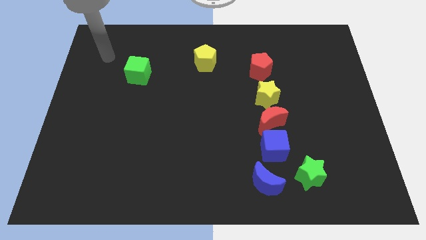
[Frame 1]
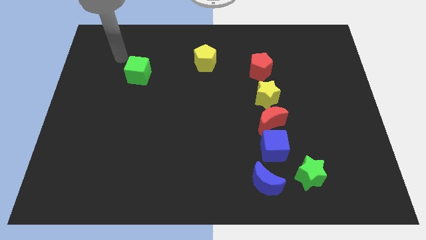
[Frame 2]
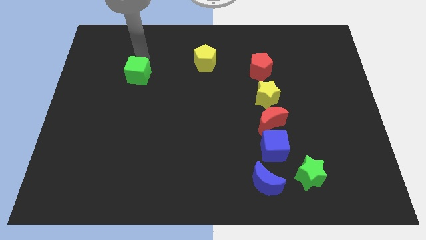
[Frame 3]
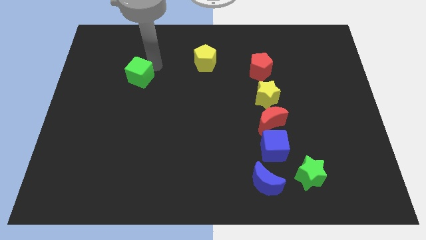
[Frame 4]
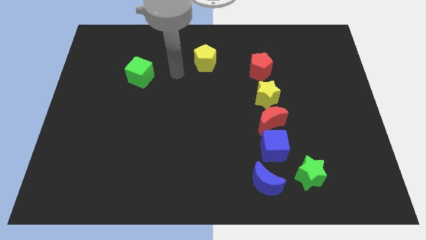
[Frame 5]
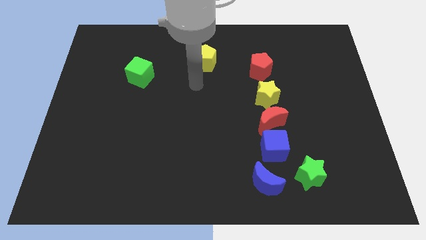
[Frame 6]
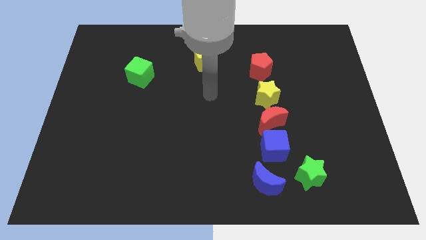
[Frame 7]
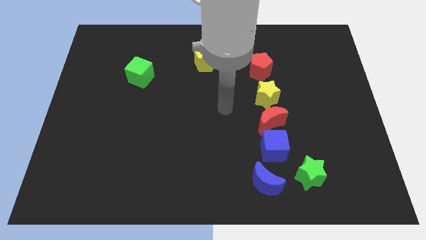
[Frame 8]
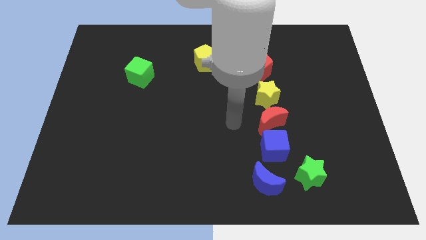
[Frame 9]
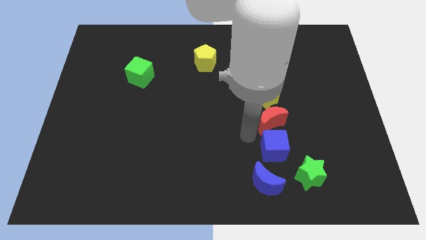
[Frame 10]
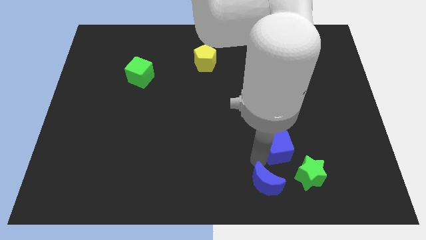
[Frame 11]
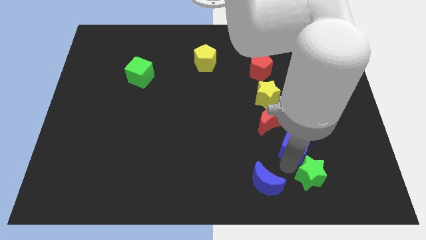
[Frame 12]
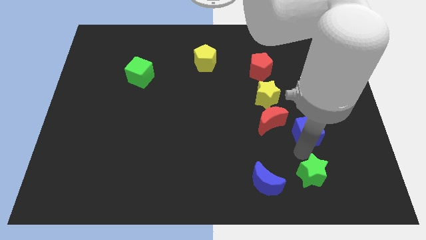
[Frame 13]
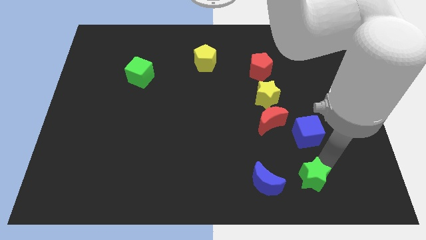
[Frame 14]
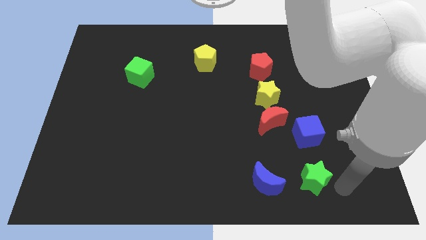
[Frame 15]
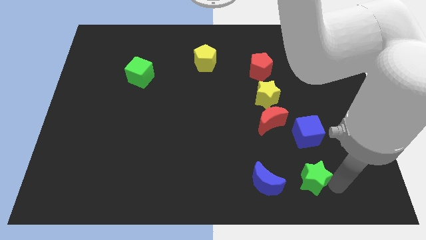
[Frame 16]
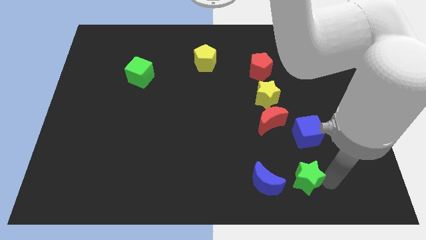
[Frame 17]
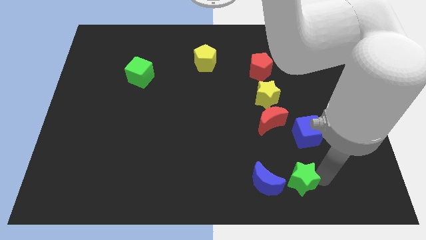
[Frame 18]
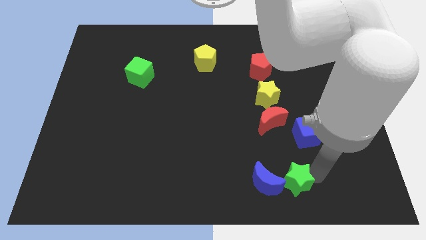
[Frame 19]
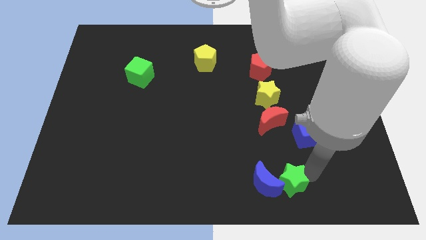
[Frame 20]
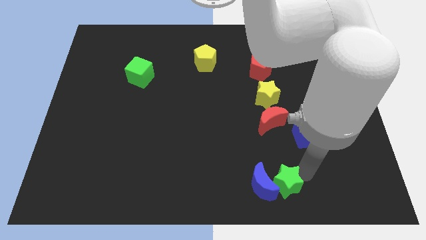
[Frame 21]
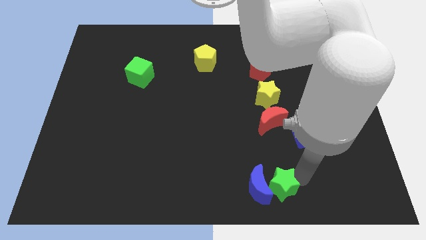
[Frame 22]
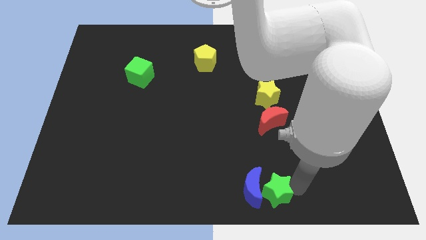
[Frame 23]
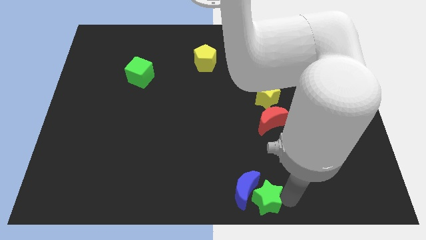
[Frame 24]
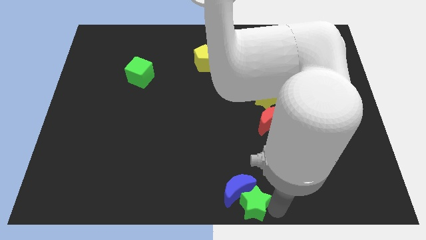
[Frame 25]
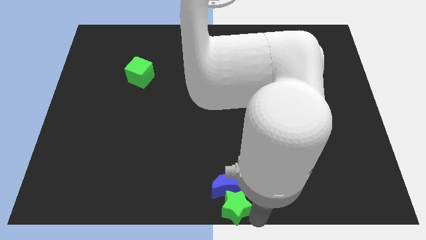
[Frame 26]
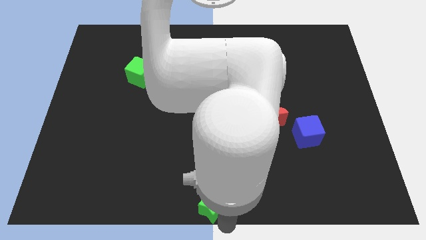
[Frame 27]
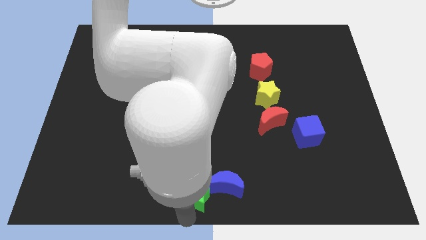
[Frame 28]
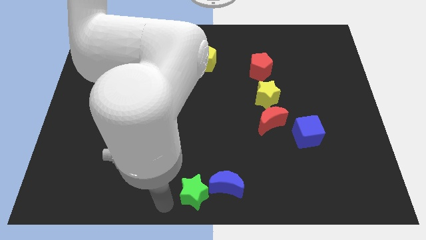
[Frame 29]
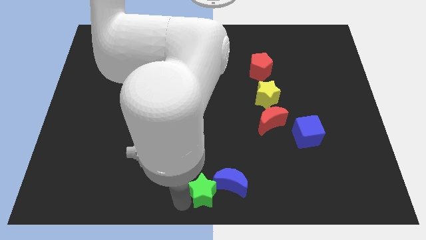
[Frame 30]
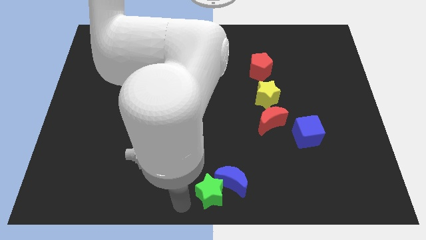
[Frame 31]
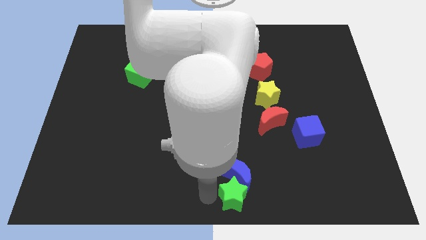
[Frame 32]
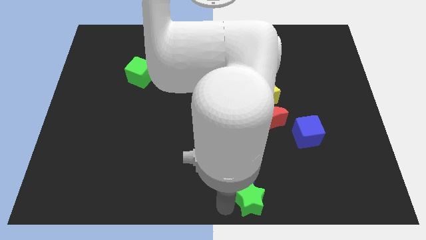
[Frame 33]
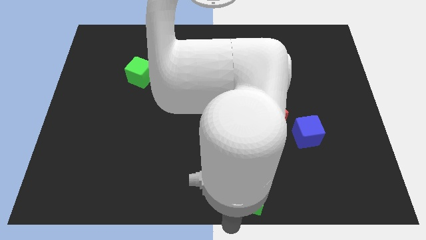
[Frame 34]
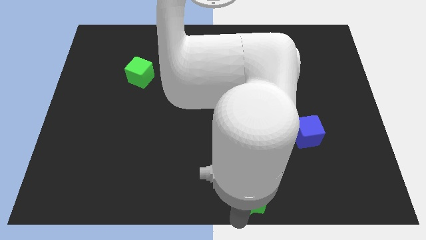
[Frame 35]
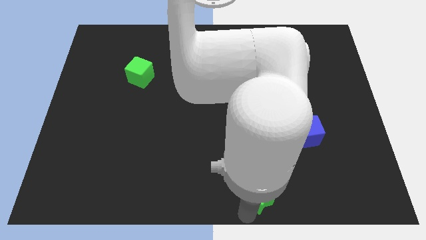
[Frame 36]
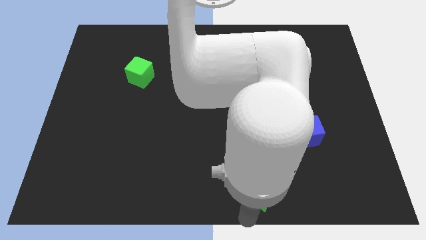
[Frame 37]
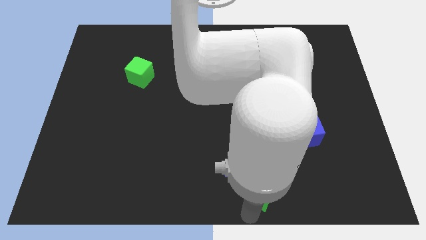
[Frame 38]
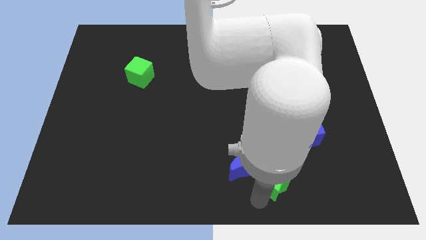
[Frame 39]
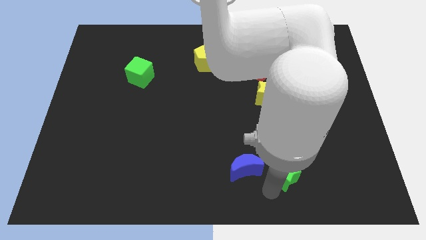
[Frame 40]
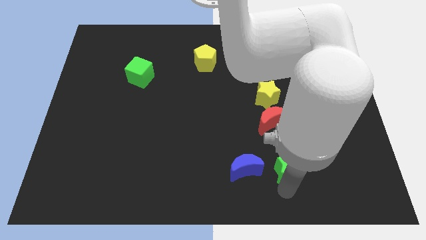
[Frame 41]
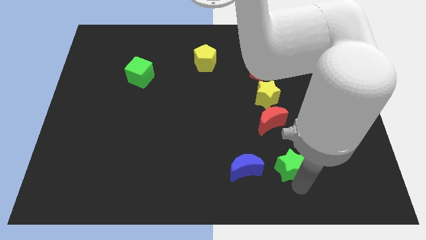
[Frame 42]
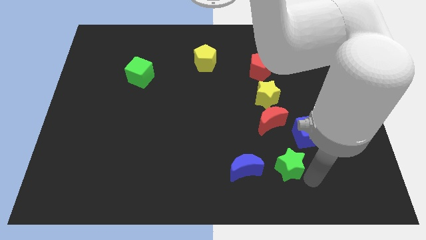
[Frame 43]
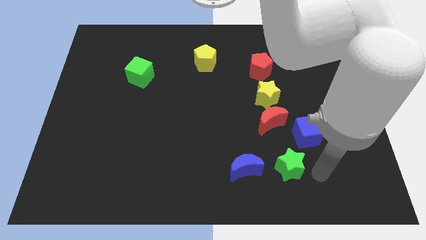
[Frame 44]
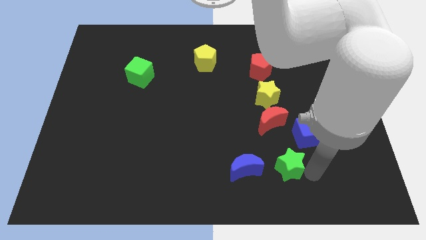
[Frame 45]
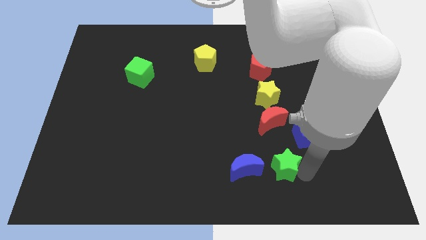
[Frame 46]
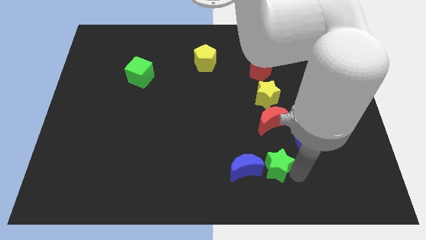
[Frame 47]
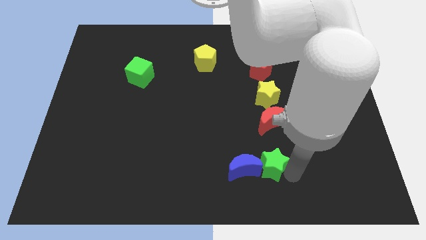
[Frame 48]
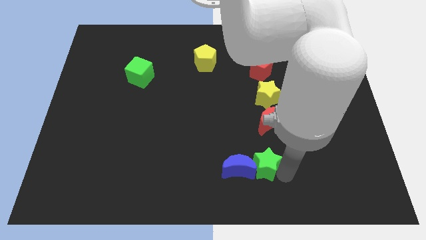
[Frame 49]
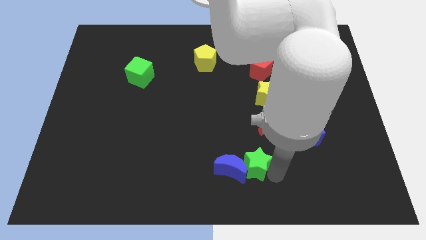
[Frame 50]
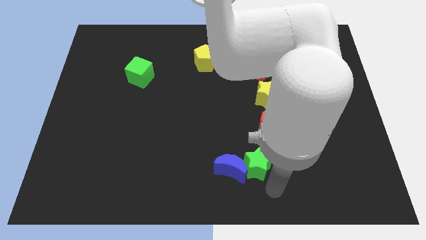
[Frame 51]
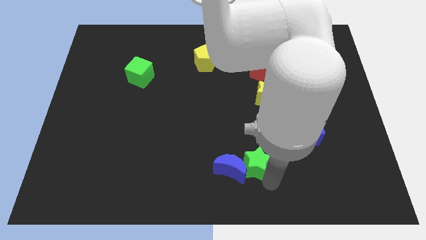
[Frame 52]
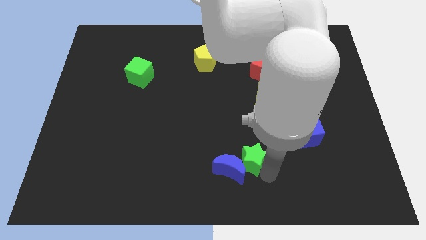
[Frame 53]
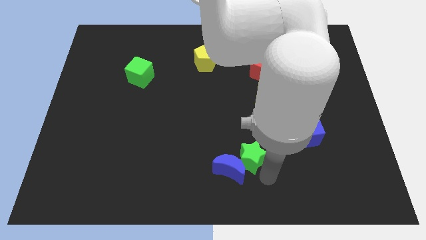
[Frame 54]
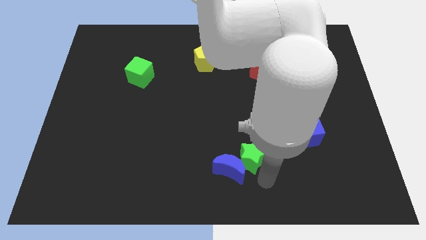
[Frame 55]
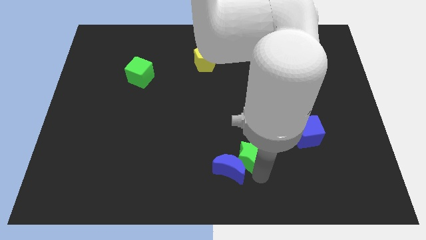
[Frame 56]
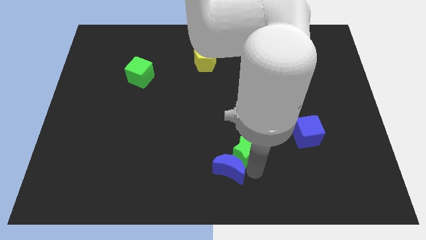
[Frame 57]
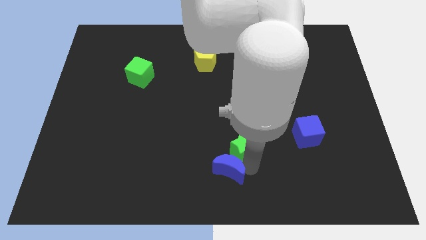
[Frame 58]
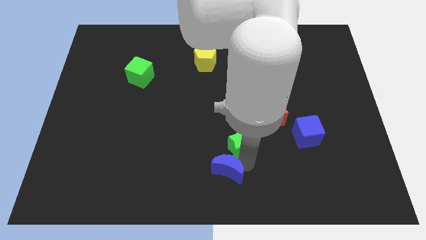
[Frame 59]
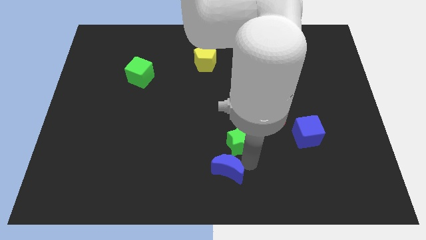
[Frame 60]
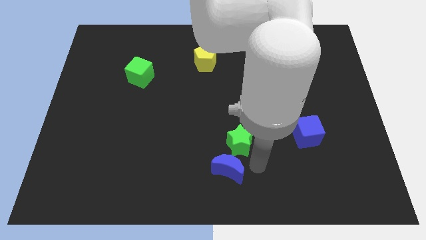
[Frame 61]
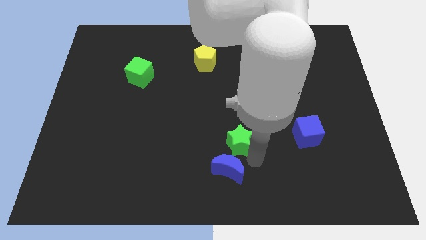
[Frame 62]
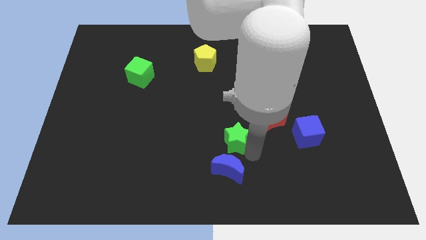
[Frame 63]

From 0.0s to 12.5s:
push the green star to the middle

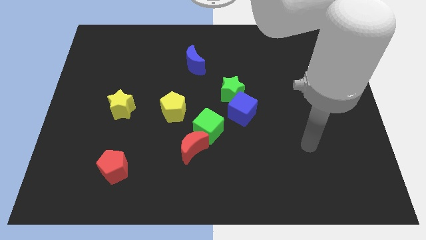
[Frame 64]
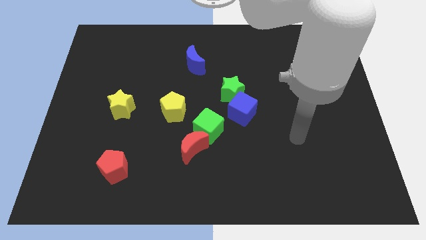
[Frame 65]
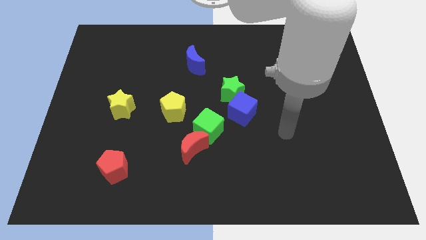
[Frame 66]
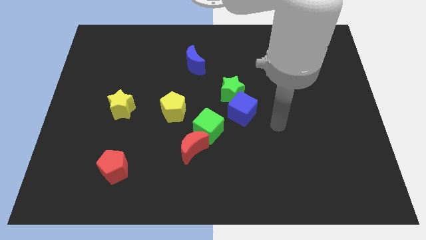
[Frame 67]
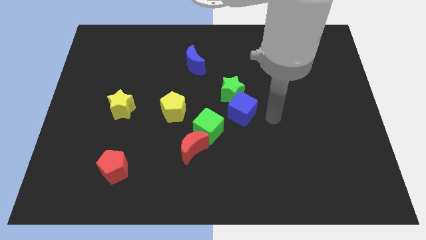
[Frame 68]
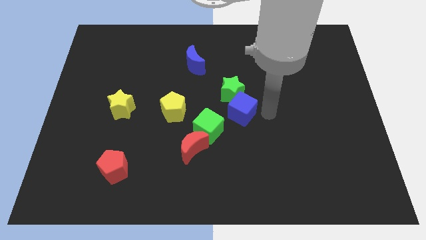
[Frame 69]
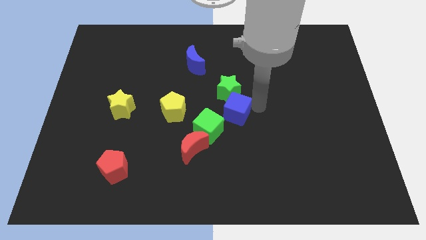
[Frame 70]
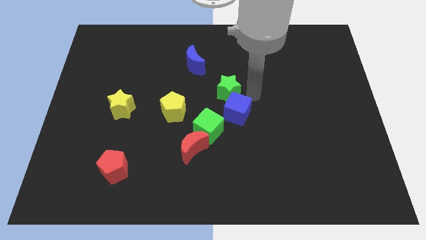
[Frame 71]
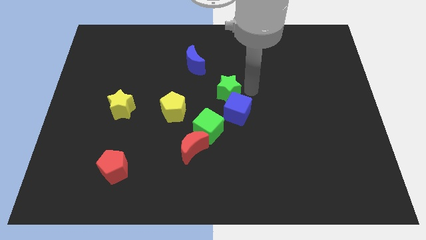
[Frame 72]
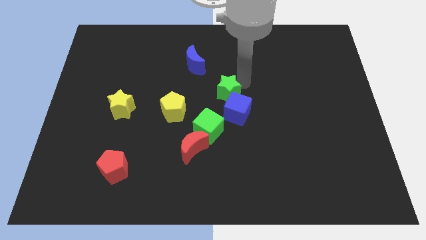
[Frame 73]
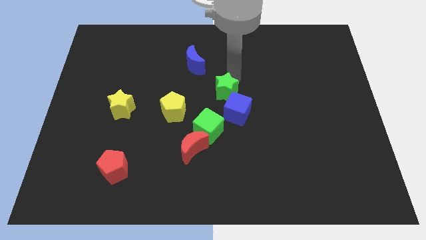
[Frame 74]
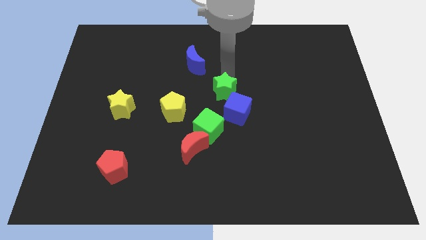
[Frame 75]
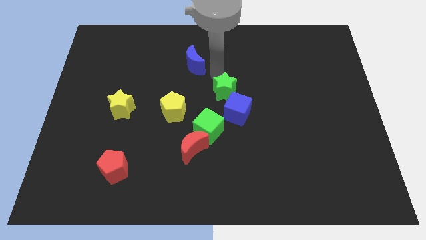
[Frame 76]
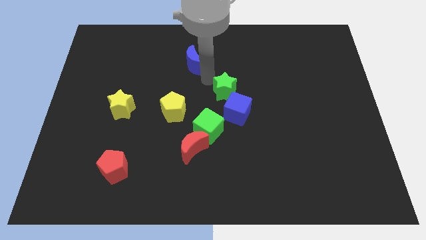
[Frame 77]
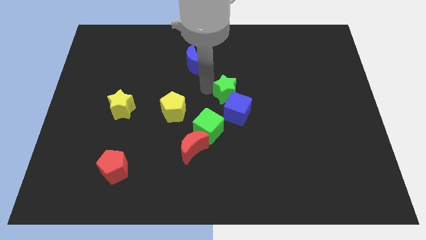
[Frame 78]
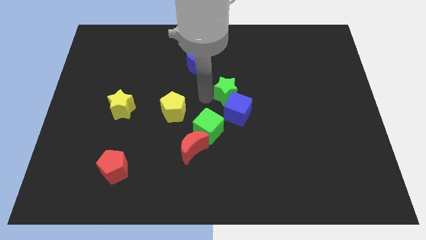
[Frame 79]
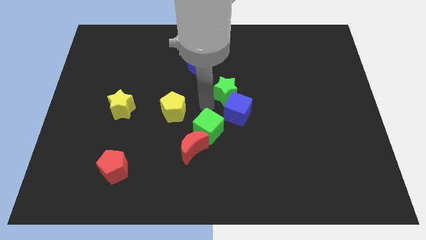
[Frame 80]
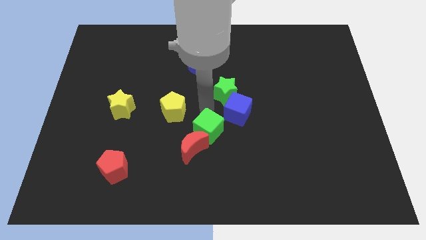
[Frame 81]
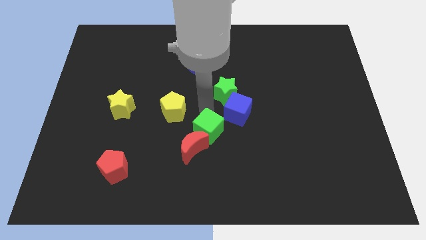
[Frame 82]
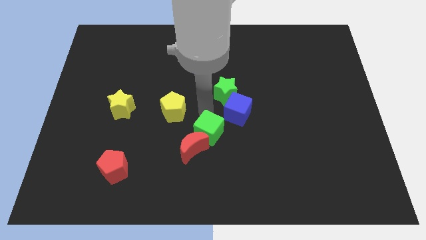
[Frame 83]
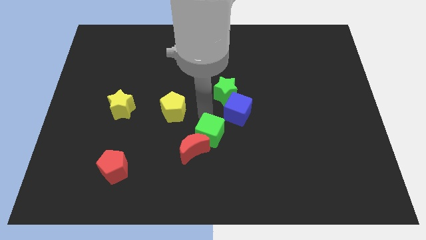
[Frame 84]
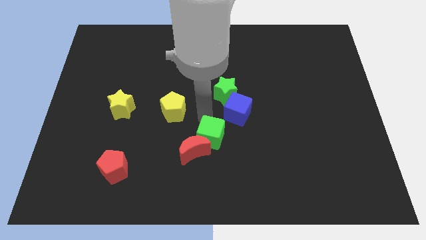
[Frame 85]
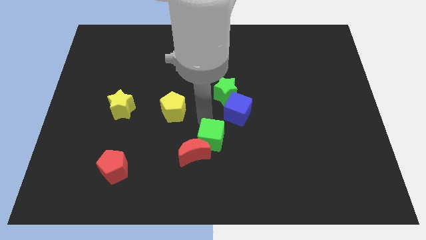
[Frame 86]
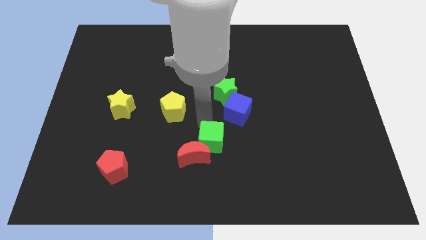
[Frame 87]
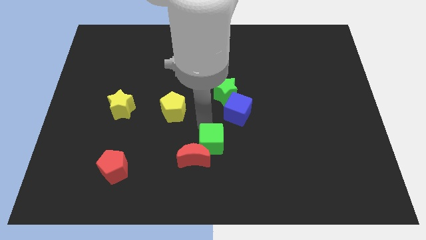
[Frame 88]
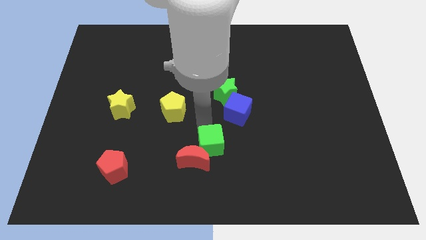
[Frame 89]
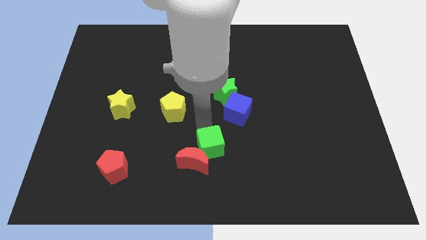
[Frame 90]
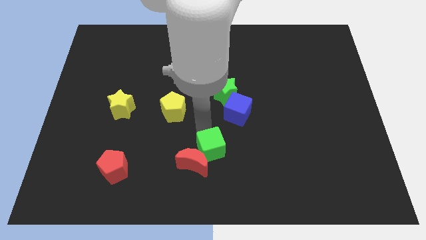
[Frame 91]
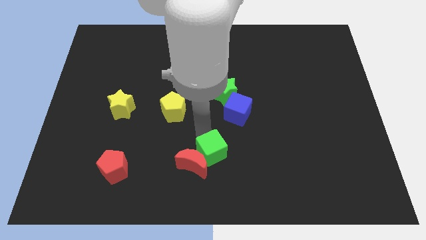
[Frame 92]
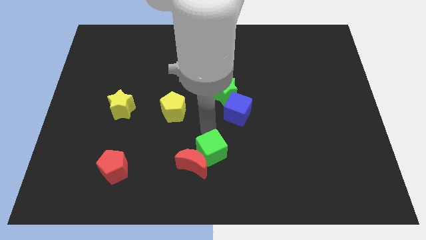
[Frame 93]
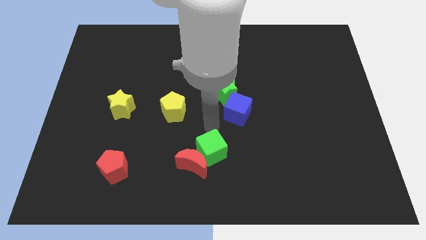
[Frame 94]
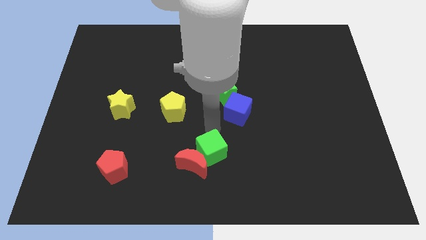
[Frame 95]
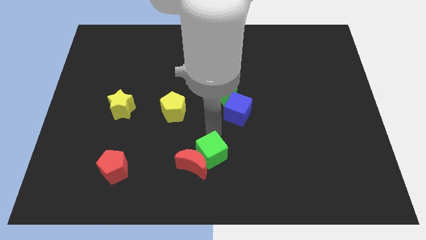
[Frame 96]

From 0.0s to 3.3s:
move the green cube to the bottom
